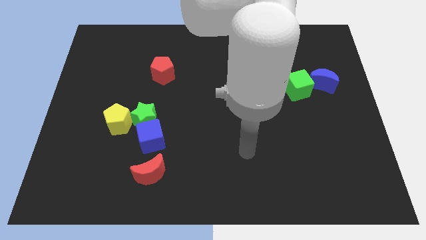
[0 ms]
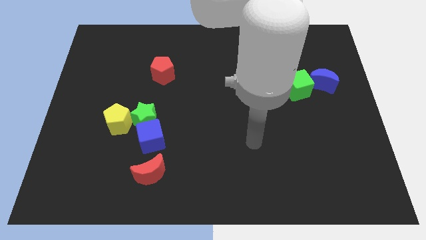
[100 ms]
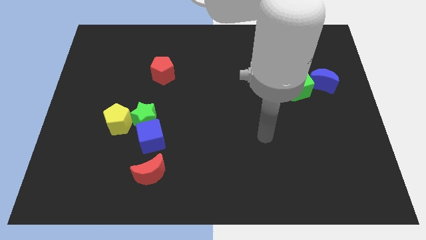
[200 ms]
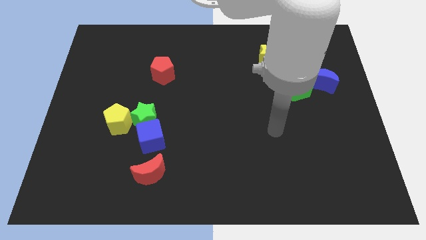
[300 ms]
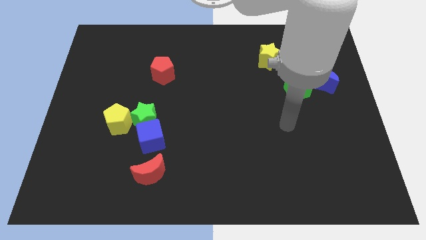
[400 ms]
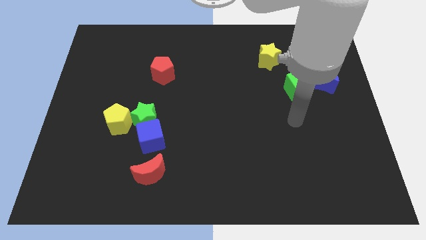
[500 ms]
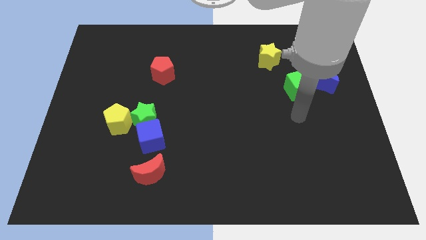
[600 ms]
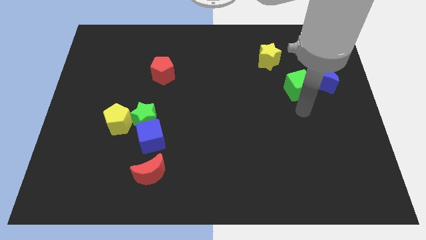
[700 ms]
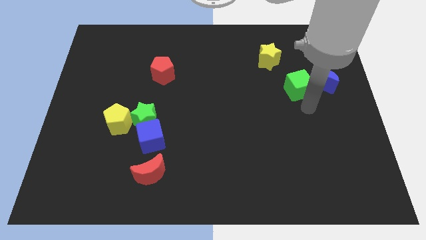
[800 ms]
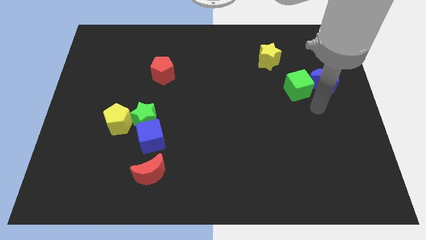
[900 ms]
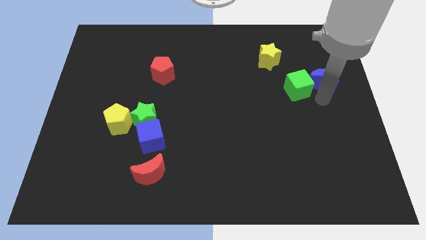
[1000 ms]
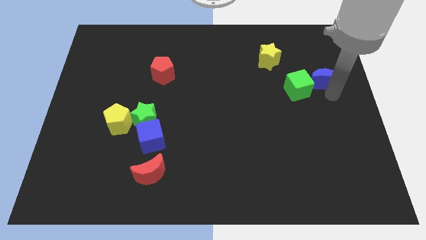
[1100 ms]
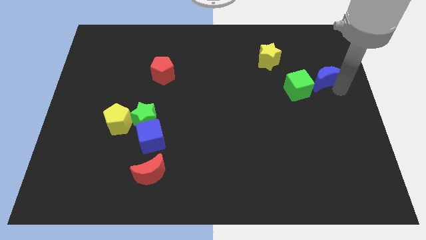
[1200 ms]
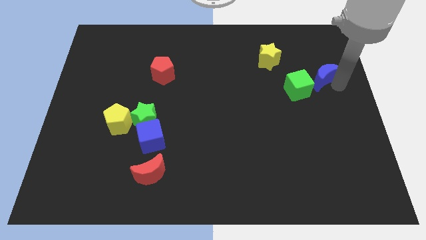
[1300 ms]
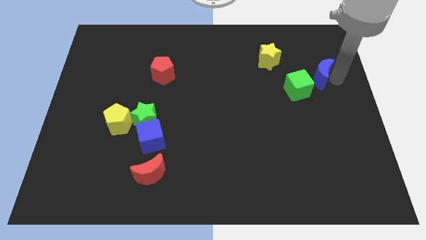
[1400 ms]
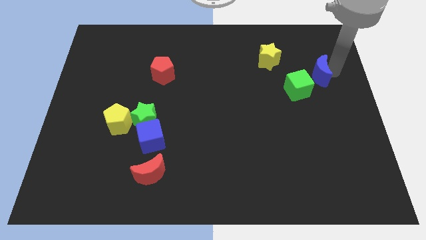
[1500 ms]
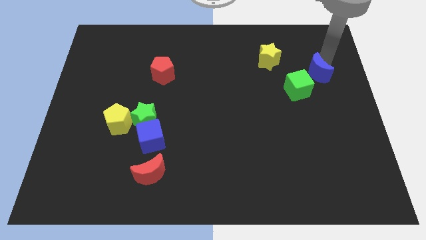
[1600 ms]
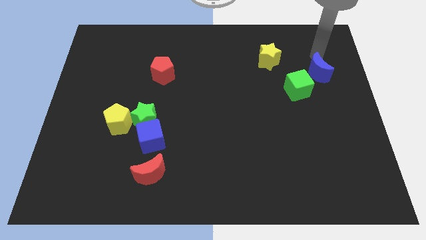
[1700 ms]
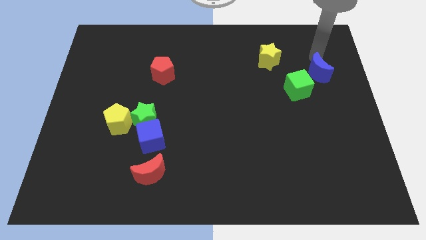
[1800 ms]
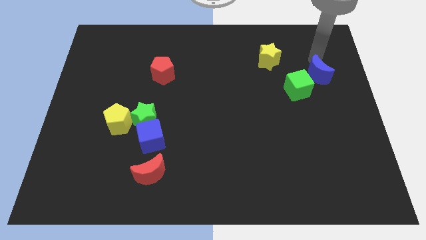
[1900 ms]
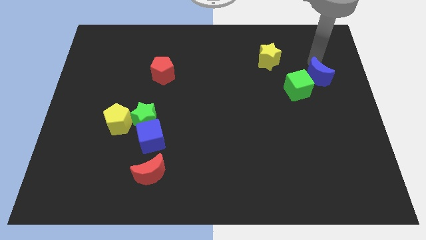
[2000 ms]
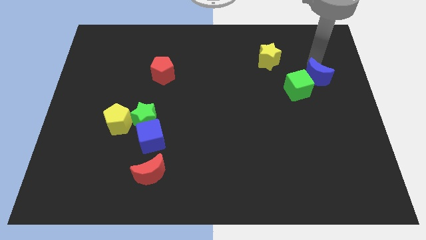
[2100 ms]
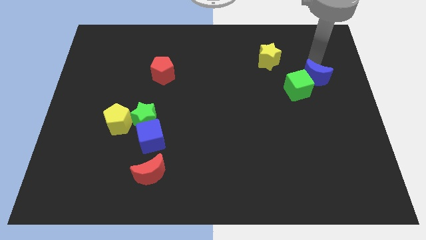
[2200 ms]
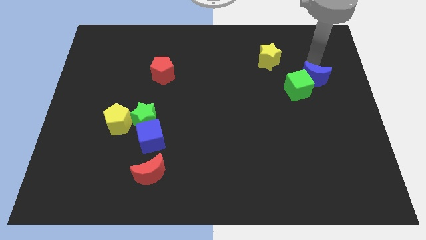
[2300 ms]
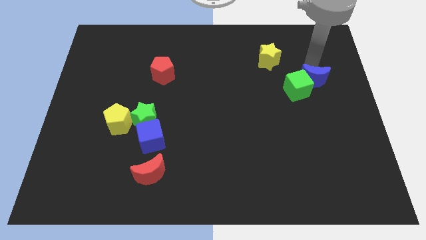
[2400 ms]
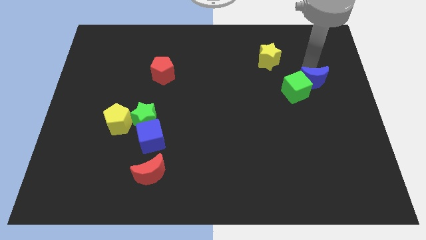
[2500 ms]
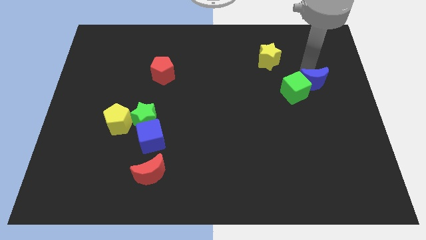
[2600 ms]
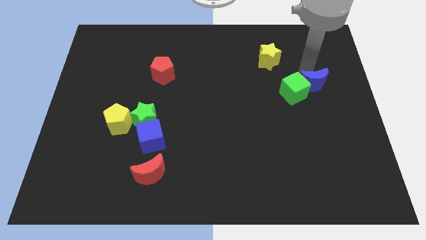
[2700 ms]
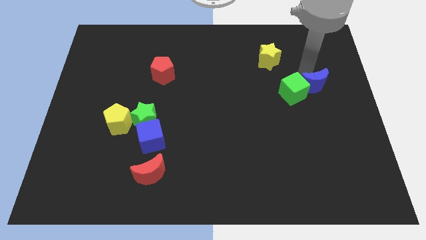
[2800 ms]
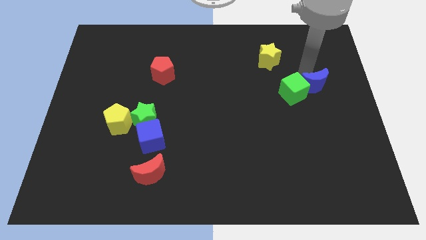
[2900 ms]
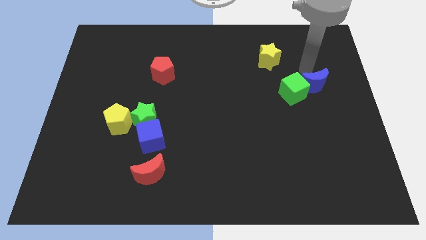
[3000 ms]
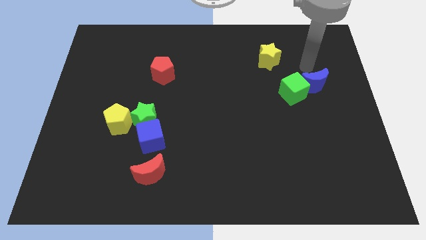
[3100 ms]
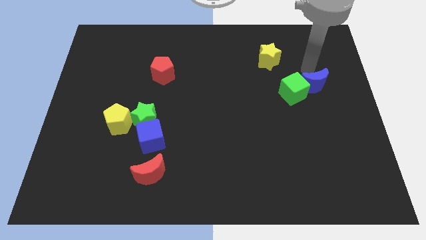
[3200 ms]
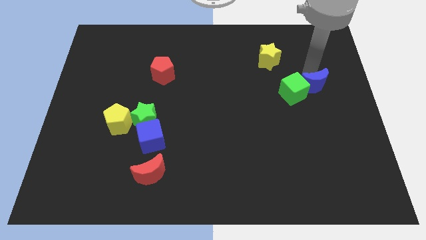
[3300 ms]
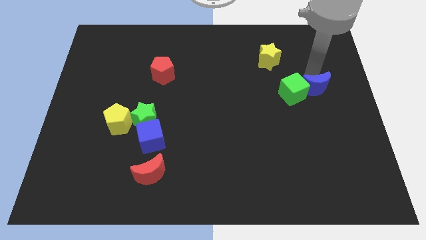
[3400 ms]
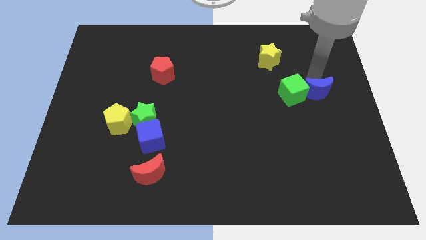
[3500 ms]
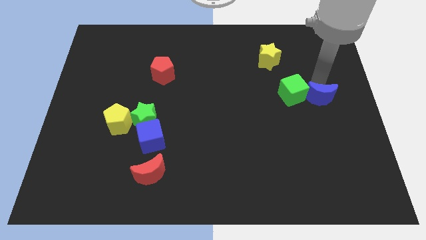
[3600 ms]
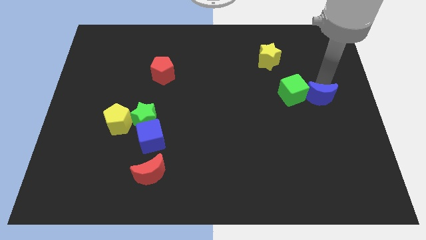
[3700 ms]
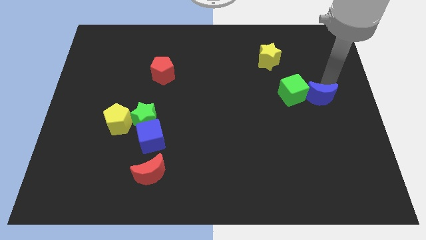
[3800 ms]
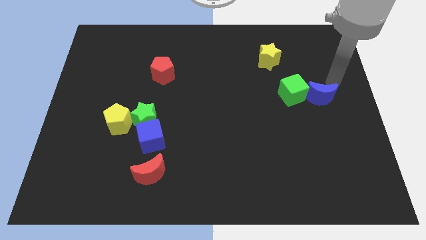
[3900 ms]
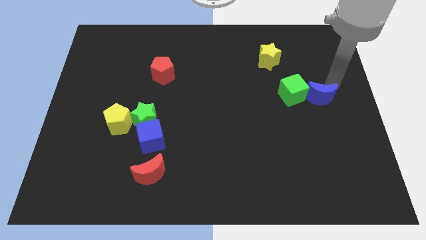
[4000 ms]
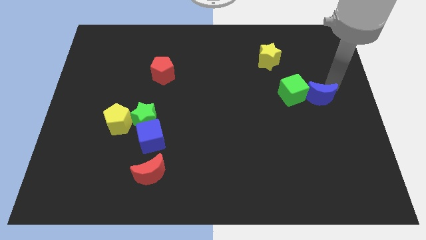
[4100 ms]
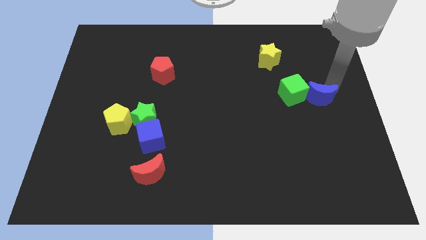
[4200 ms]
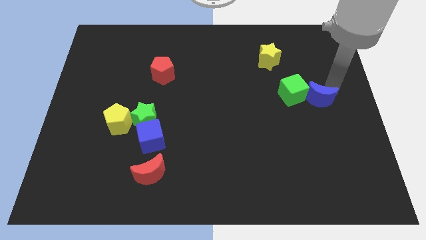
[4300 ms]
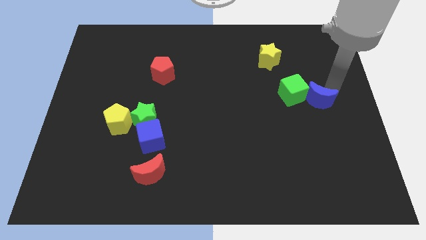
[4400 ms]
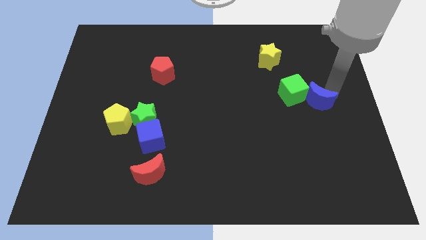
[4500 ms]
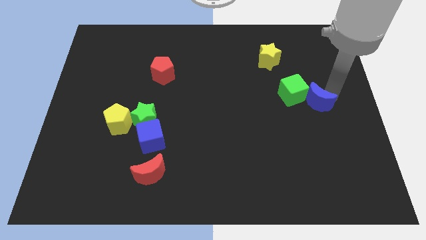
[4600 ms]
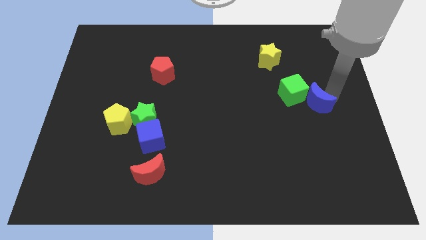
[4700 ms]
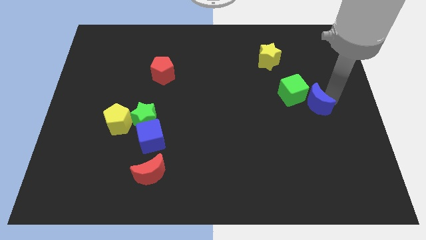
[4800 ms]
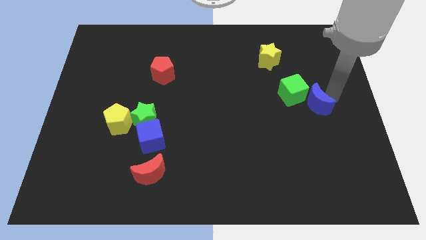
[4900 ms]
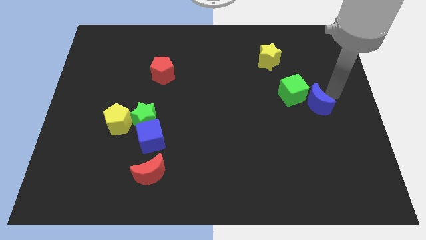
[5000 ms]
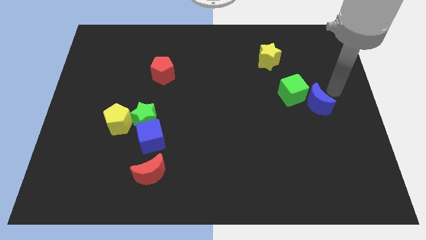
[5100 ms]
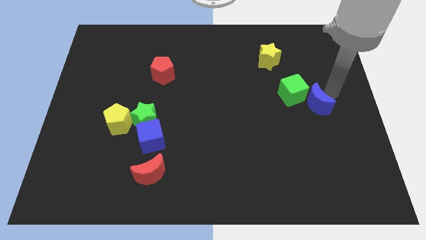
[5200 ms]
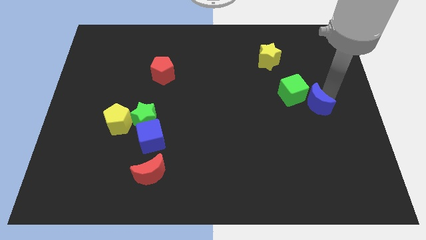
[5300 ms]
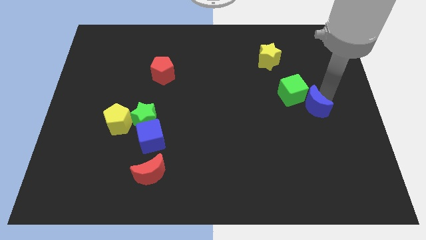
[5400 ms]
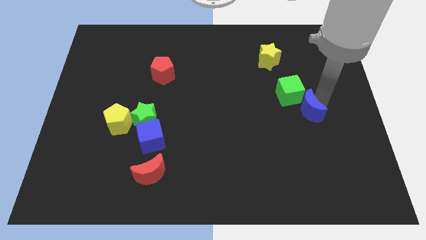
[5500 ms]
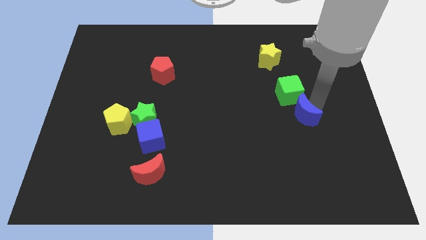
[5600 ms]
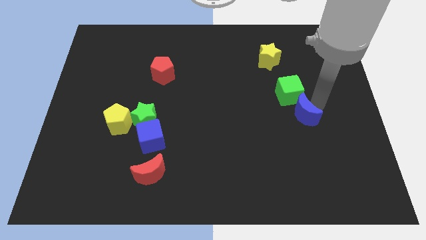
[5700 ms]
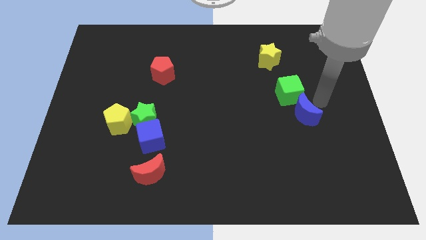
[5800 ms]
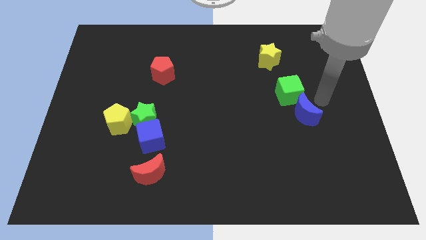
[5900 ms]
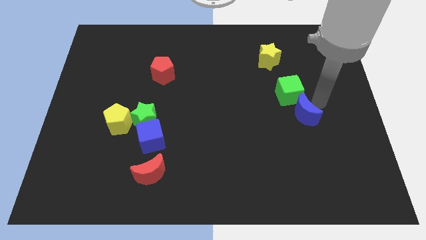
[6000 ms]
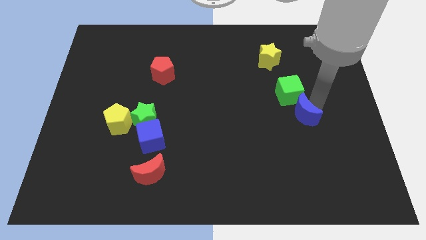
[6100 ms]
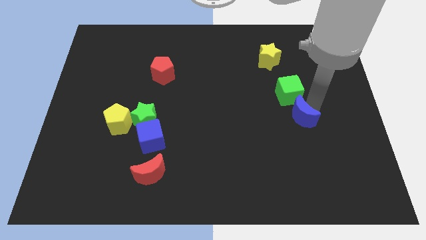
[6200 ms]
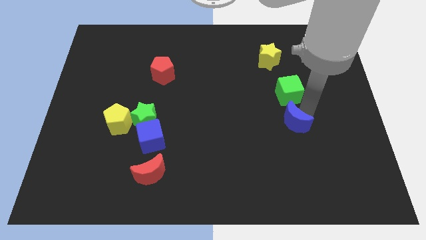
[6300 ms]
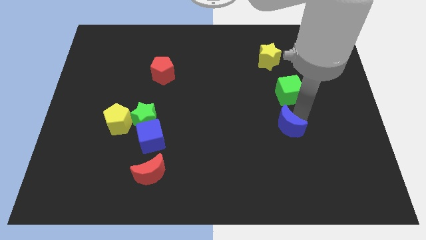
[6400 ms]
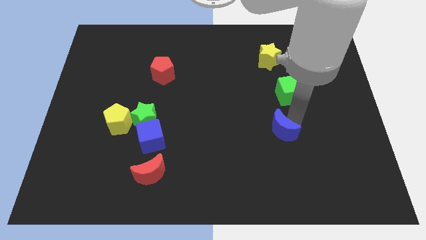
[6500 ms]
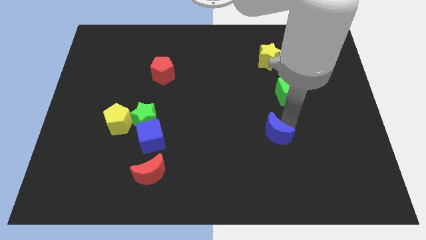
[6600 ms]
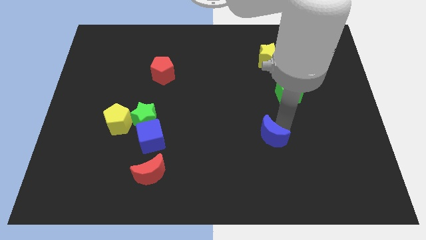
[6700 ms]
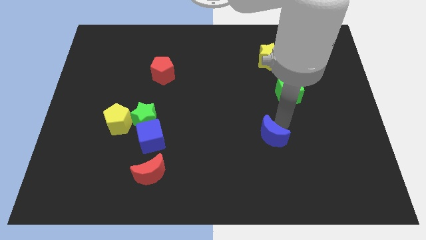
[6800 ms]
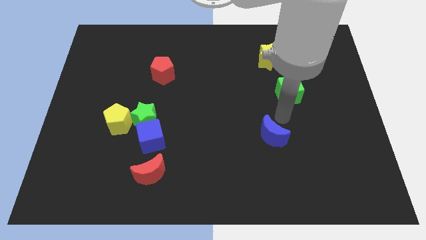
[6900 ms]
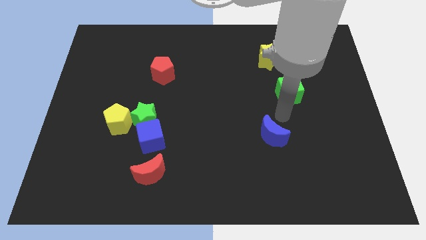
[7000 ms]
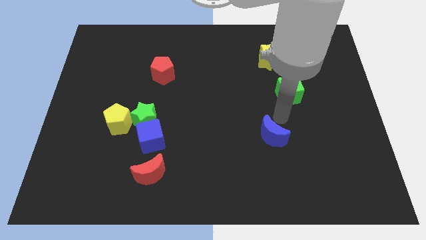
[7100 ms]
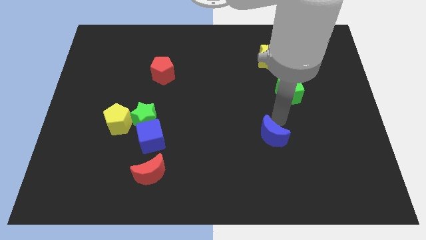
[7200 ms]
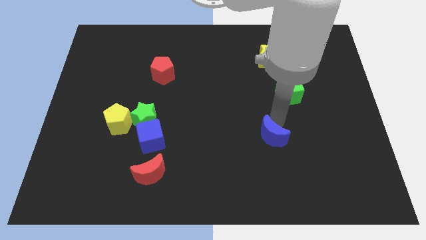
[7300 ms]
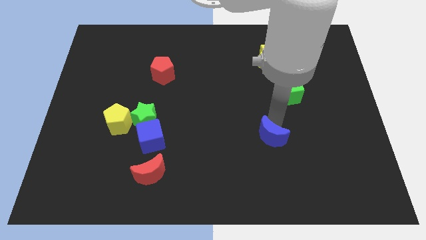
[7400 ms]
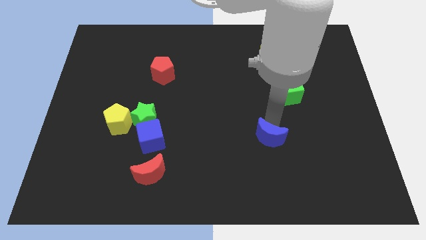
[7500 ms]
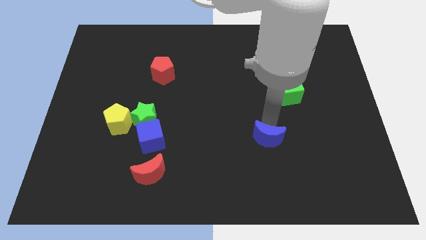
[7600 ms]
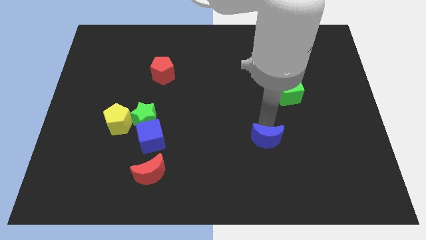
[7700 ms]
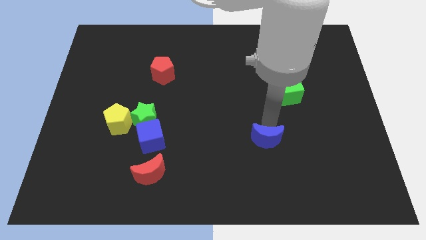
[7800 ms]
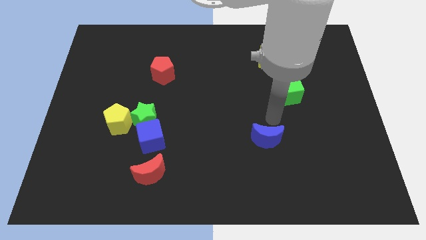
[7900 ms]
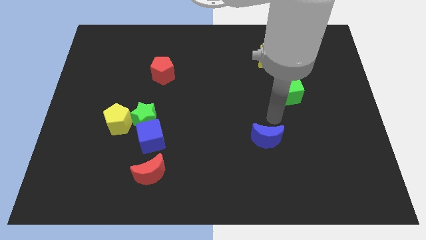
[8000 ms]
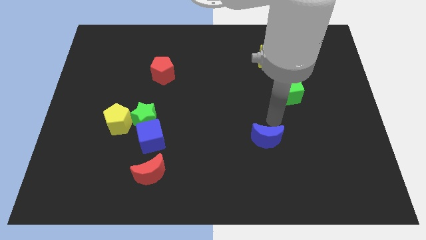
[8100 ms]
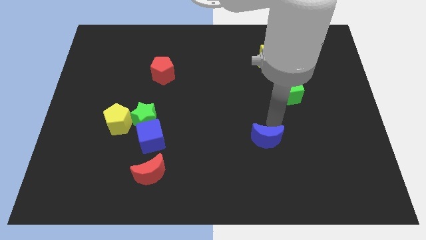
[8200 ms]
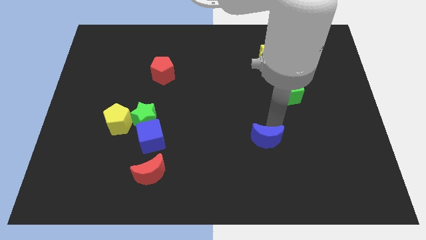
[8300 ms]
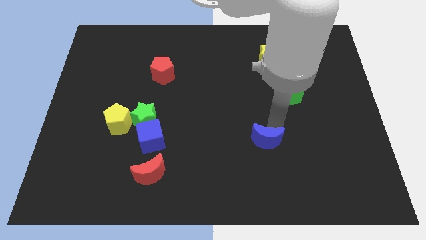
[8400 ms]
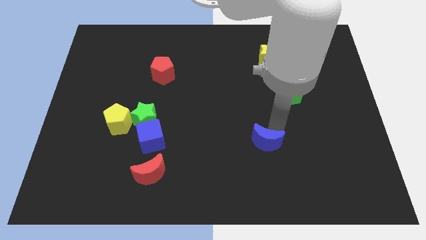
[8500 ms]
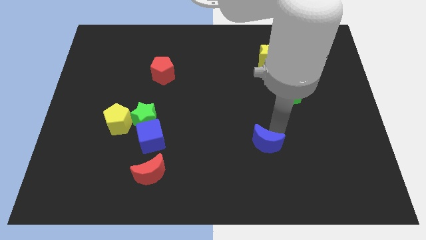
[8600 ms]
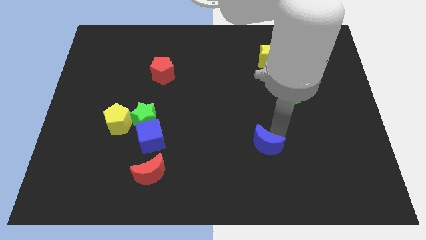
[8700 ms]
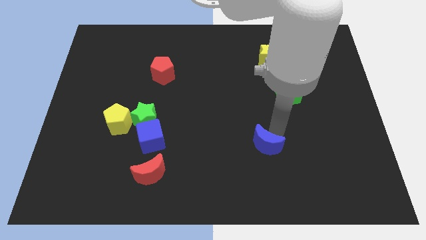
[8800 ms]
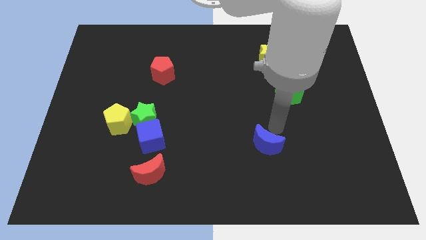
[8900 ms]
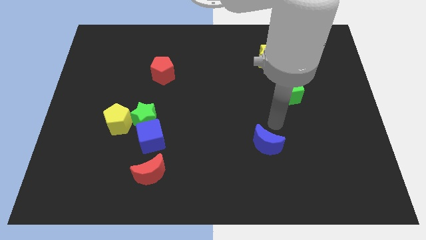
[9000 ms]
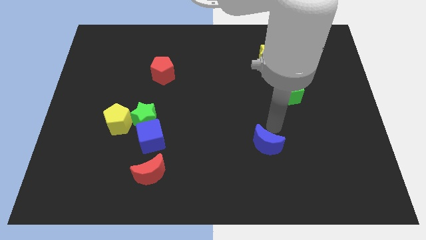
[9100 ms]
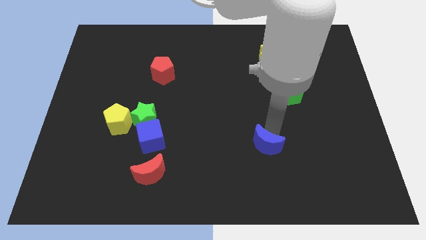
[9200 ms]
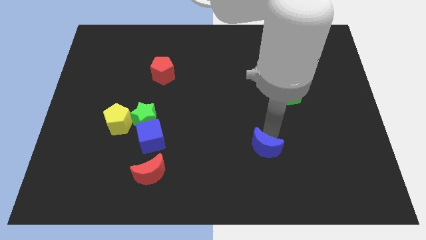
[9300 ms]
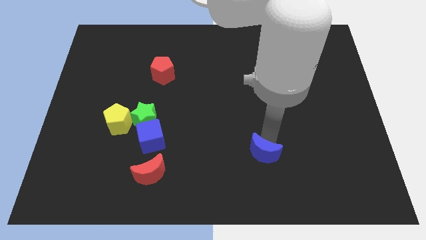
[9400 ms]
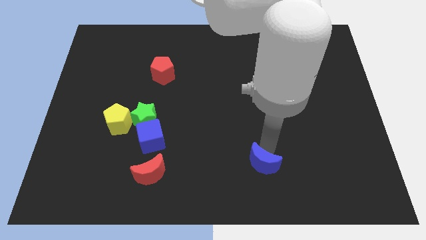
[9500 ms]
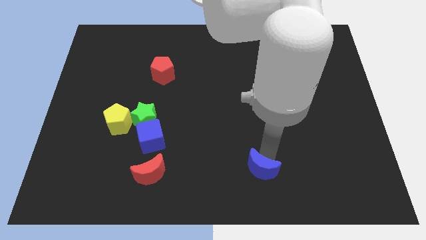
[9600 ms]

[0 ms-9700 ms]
slide the blue moon to the bottom side
